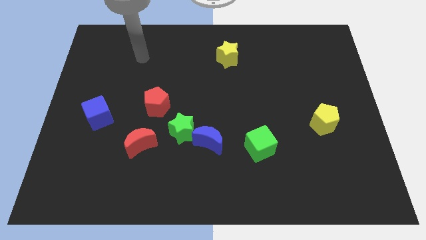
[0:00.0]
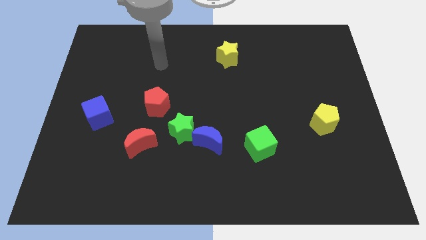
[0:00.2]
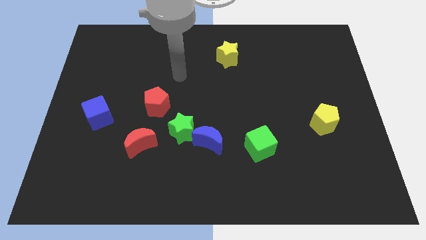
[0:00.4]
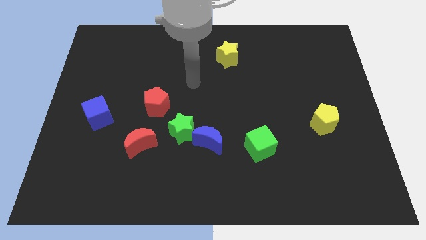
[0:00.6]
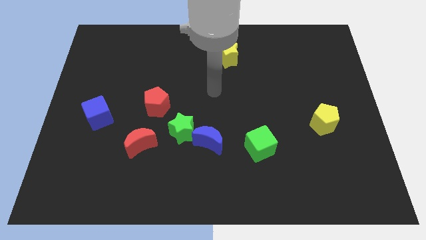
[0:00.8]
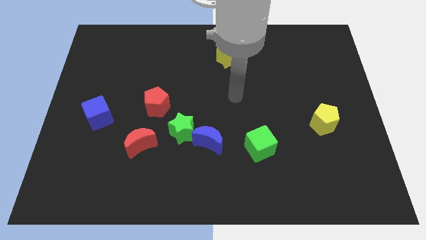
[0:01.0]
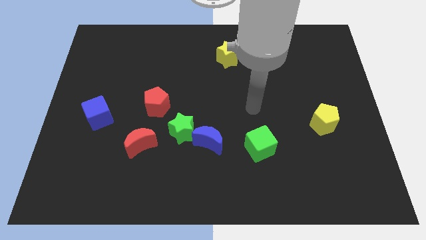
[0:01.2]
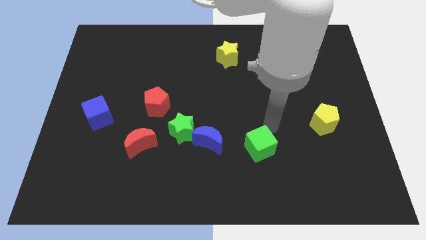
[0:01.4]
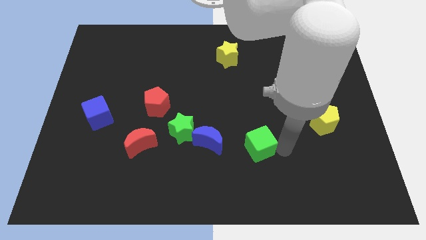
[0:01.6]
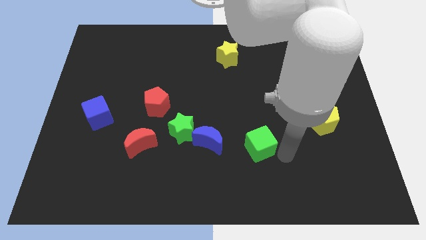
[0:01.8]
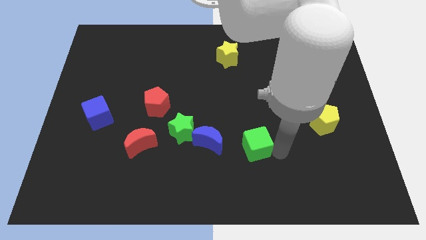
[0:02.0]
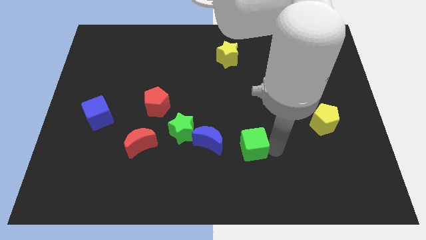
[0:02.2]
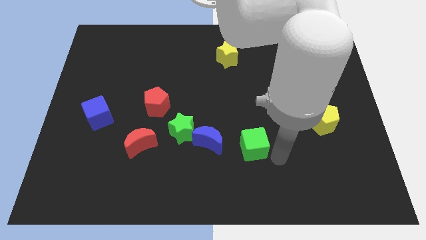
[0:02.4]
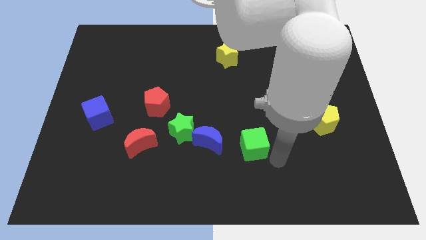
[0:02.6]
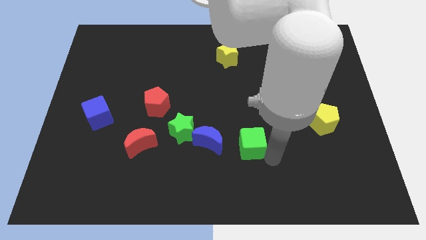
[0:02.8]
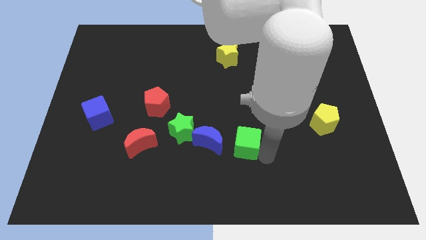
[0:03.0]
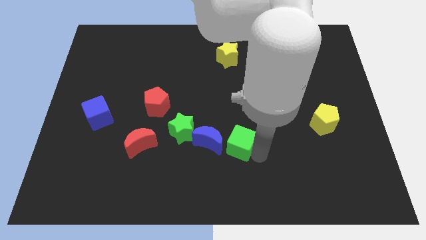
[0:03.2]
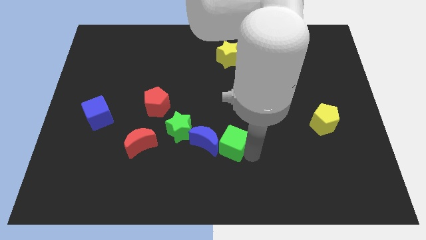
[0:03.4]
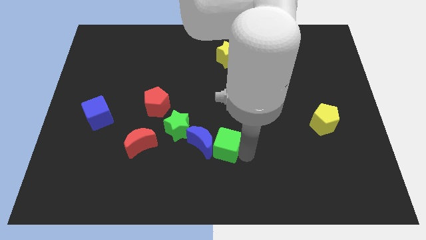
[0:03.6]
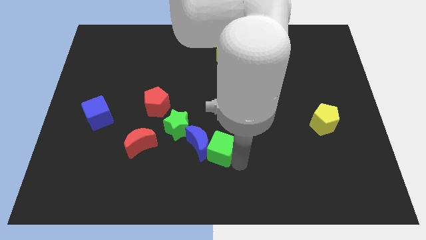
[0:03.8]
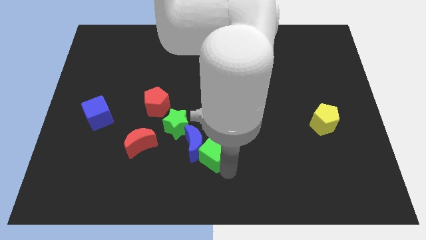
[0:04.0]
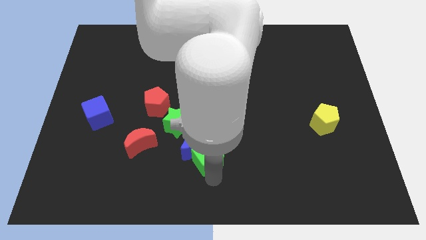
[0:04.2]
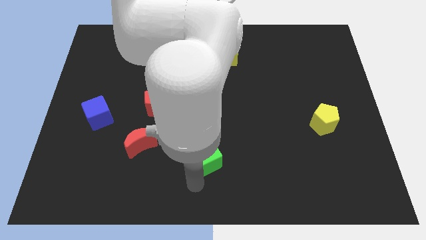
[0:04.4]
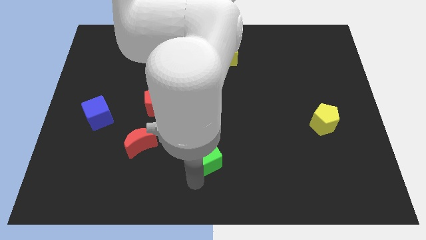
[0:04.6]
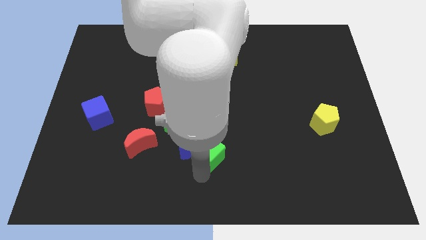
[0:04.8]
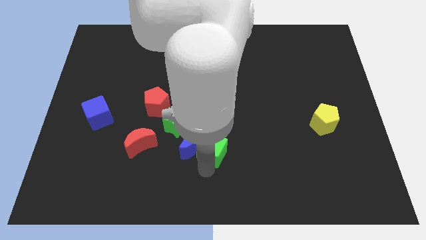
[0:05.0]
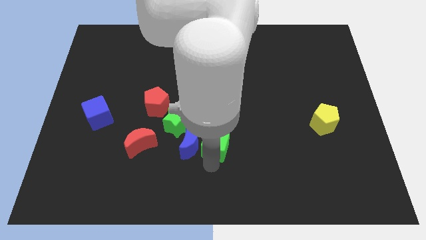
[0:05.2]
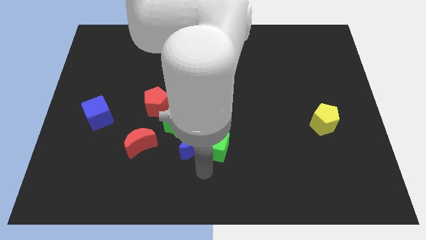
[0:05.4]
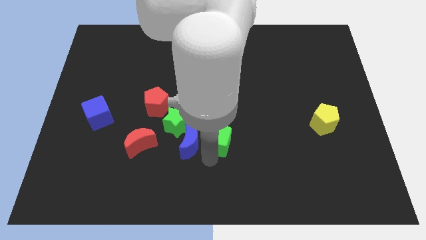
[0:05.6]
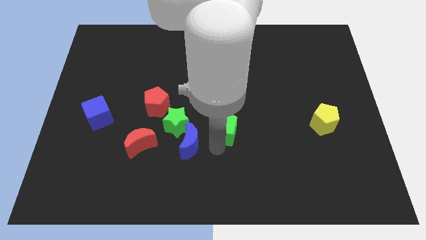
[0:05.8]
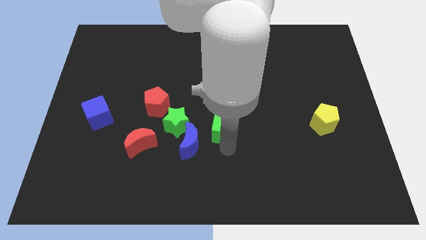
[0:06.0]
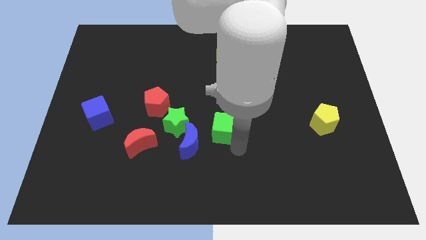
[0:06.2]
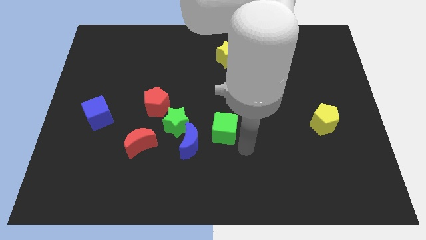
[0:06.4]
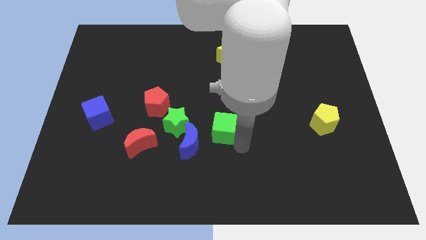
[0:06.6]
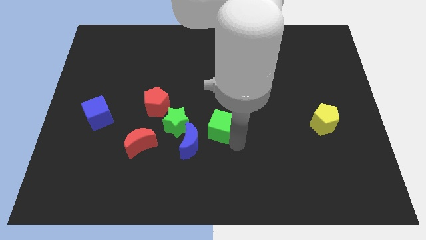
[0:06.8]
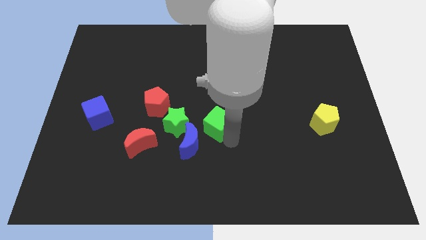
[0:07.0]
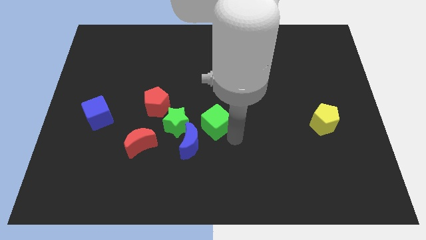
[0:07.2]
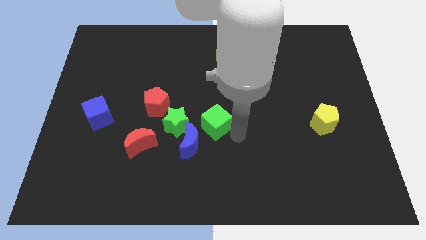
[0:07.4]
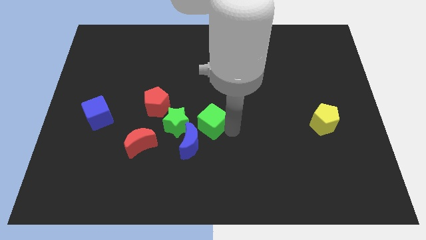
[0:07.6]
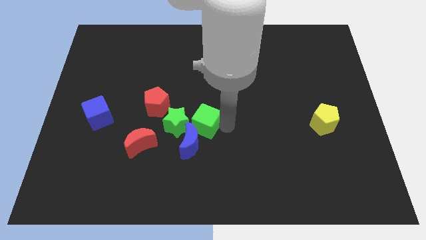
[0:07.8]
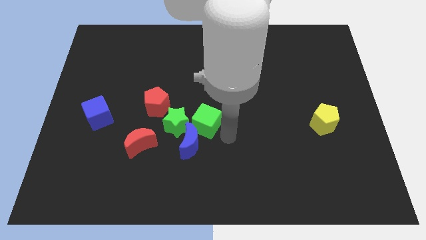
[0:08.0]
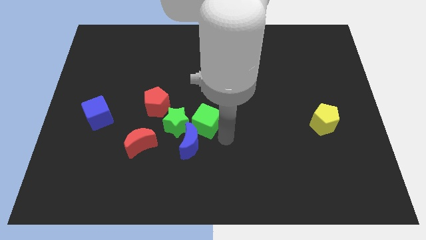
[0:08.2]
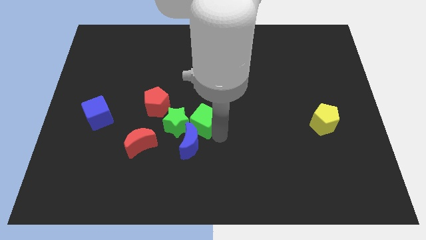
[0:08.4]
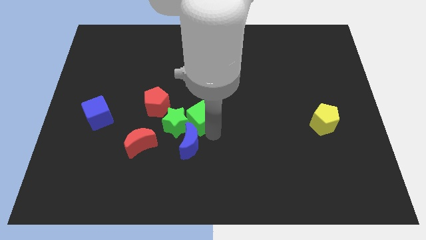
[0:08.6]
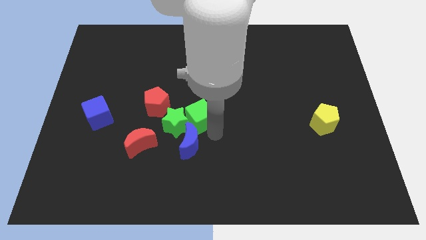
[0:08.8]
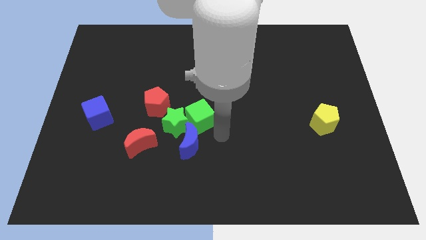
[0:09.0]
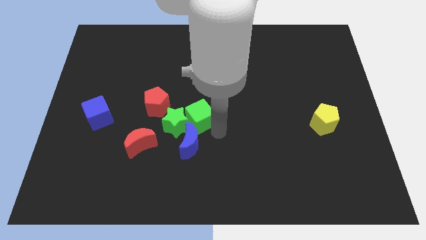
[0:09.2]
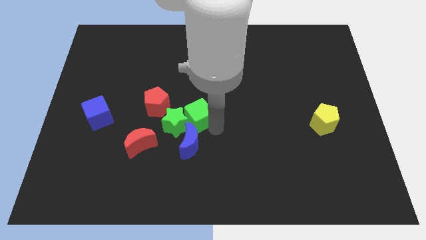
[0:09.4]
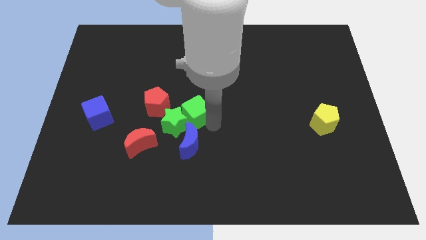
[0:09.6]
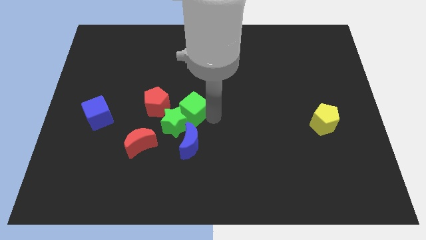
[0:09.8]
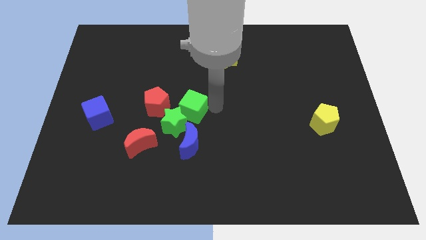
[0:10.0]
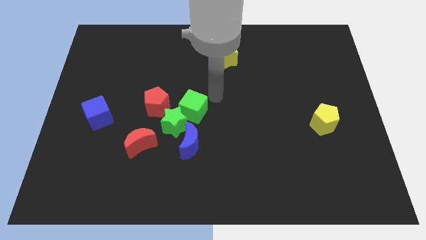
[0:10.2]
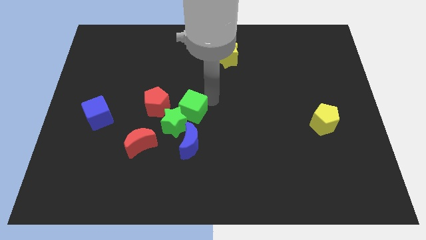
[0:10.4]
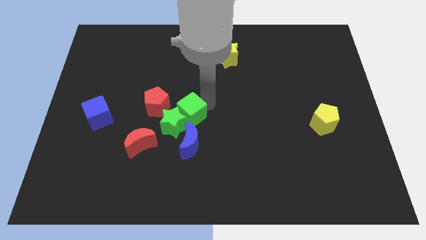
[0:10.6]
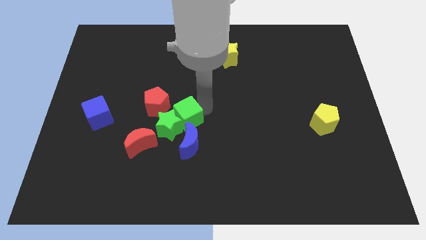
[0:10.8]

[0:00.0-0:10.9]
move the green cube diagonally up and to the left of the blue moon

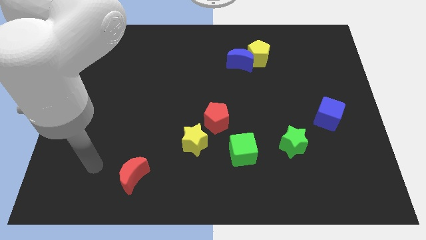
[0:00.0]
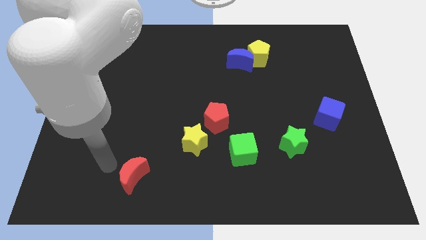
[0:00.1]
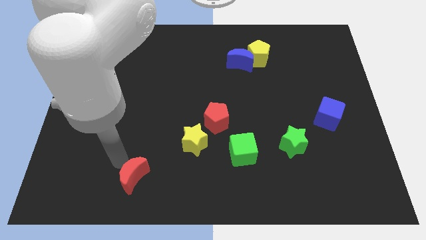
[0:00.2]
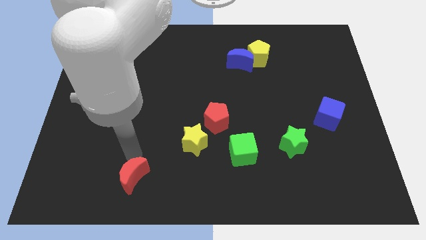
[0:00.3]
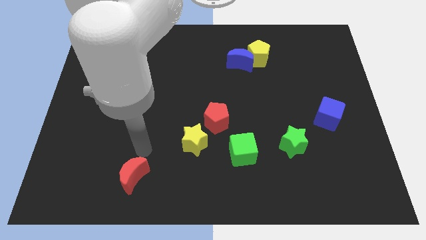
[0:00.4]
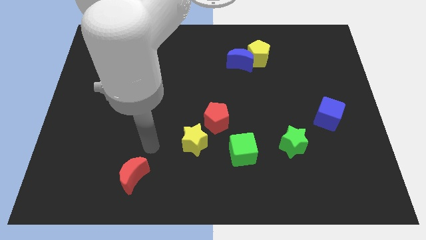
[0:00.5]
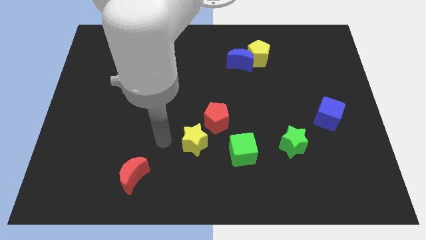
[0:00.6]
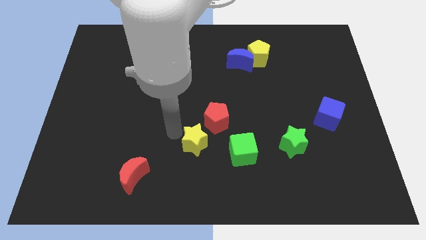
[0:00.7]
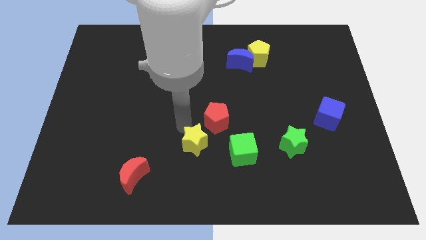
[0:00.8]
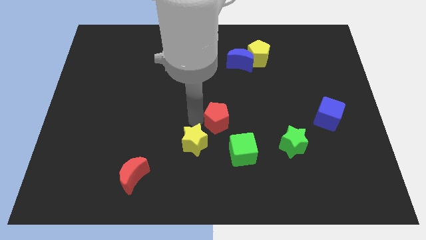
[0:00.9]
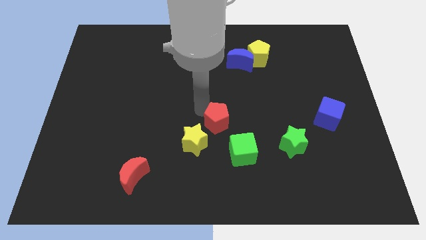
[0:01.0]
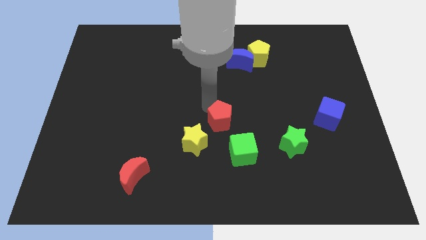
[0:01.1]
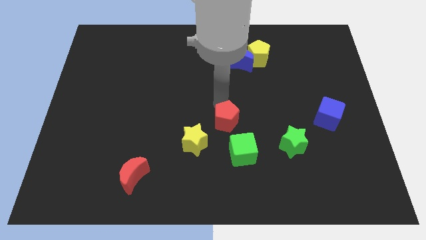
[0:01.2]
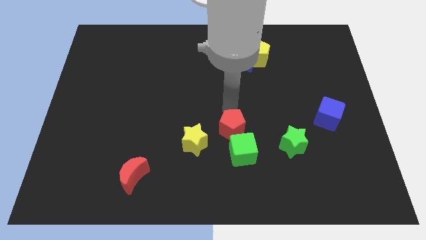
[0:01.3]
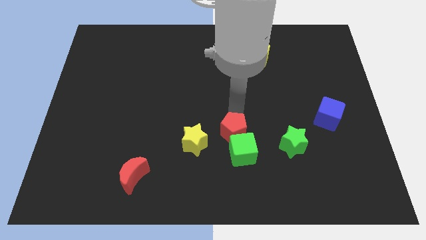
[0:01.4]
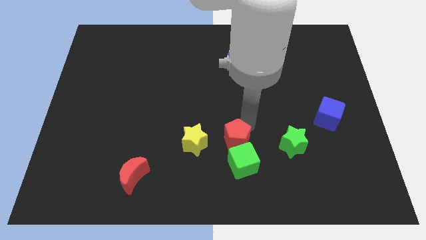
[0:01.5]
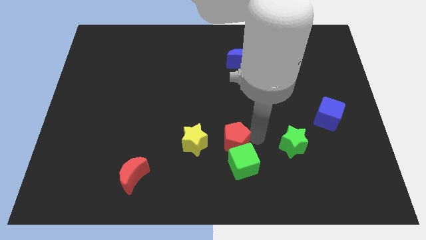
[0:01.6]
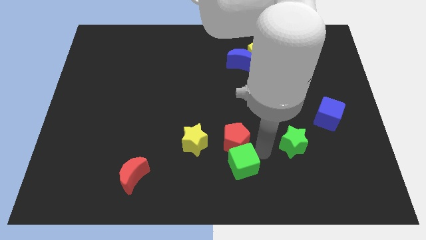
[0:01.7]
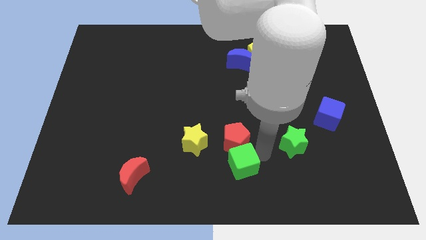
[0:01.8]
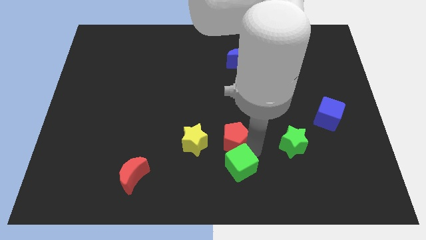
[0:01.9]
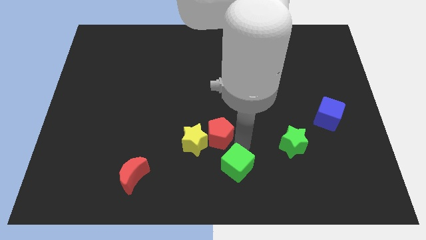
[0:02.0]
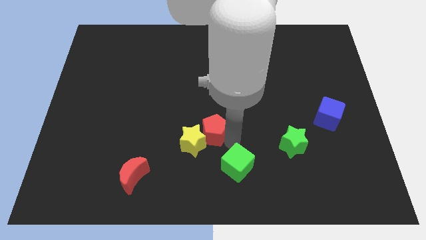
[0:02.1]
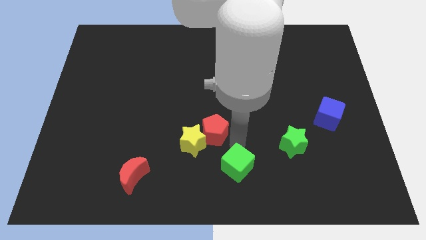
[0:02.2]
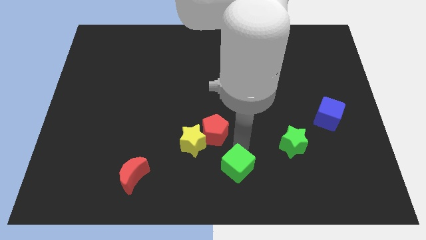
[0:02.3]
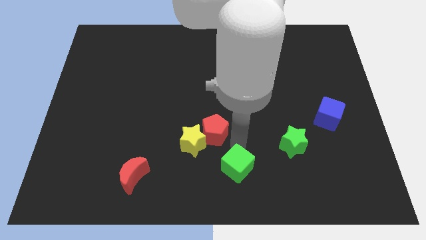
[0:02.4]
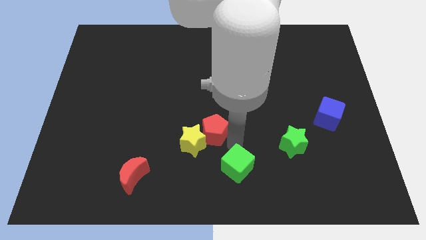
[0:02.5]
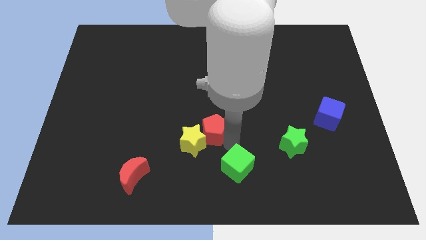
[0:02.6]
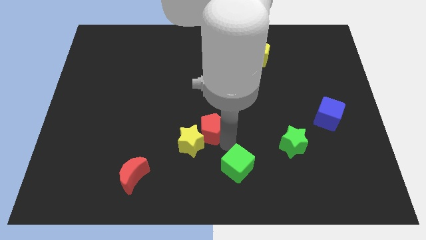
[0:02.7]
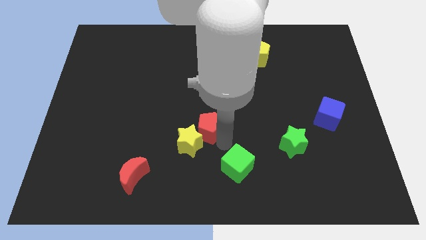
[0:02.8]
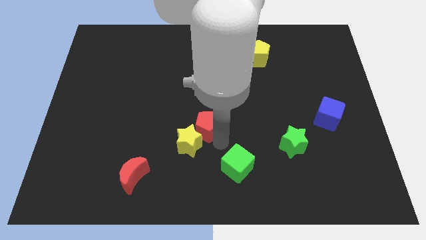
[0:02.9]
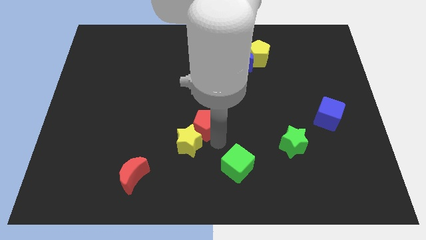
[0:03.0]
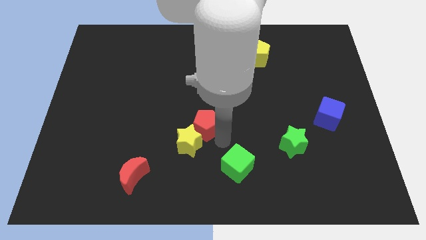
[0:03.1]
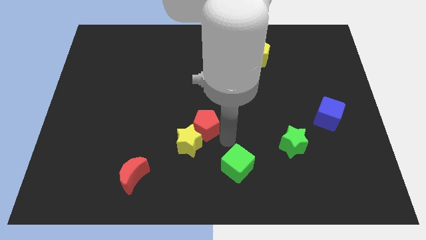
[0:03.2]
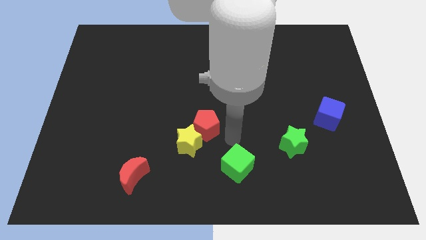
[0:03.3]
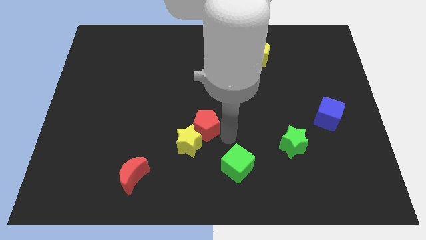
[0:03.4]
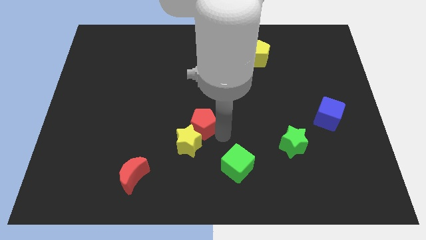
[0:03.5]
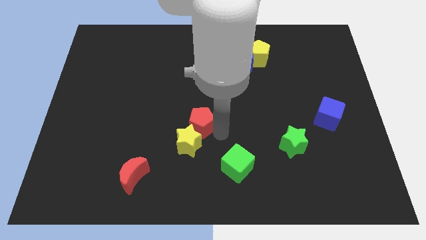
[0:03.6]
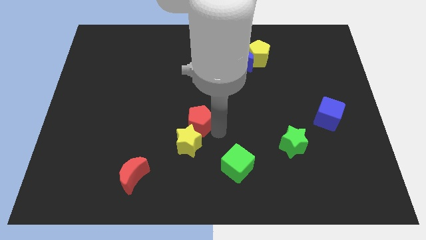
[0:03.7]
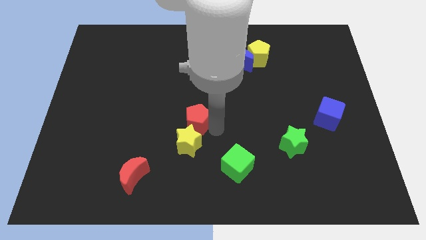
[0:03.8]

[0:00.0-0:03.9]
push the red pentagon diagonally up and to the left of the yellow star
